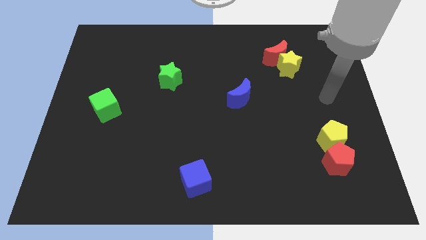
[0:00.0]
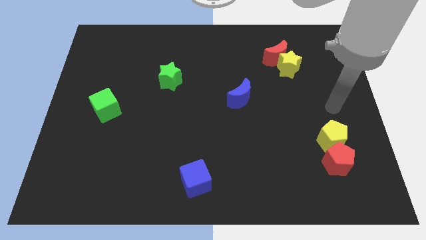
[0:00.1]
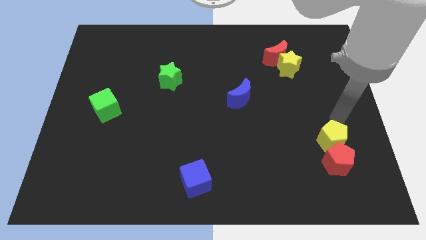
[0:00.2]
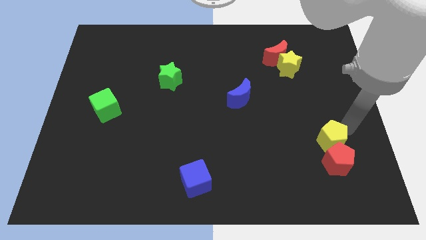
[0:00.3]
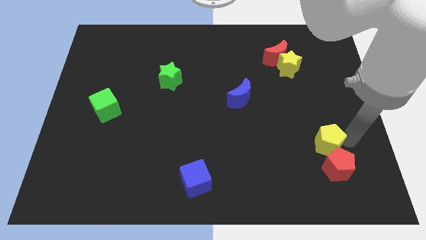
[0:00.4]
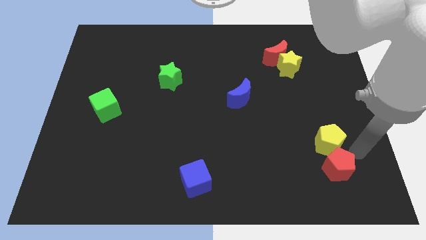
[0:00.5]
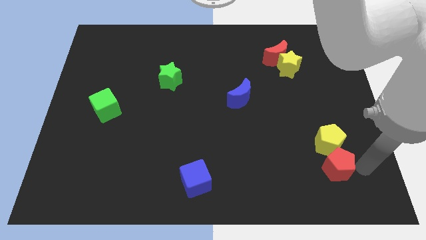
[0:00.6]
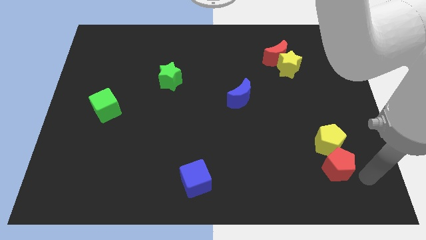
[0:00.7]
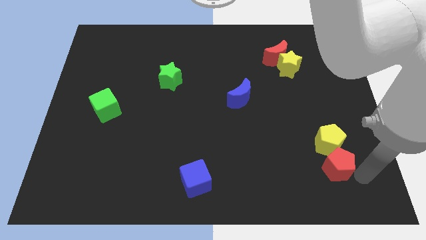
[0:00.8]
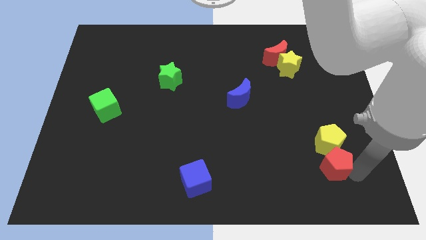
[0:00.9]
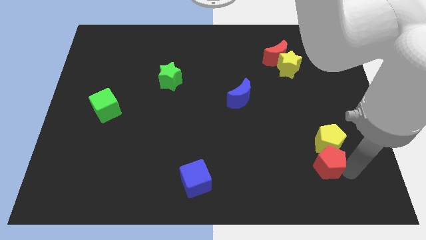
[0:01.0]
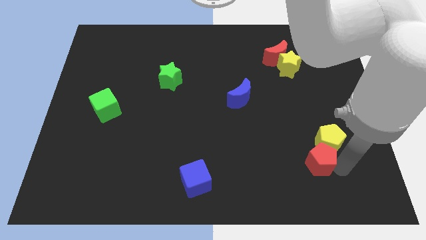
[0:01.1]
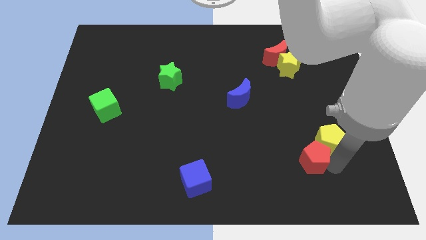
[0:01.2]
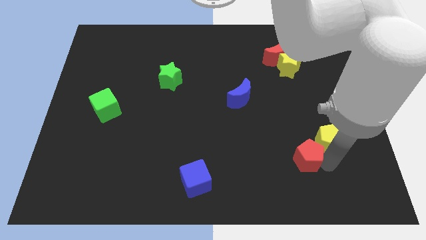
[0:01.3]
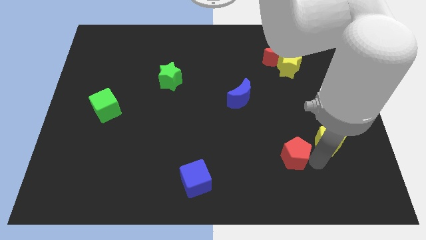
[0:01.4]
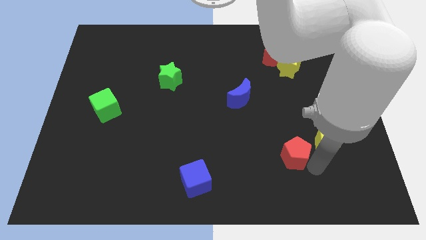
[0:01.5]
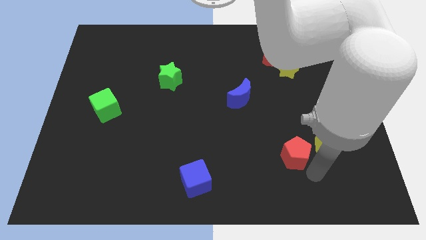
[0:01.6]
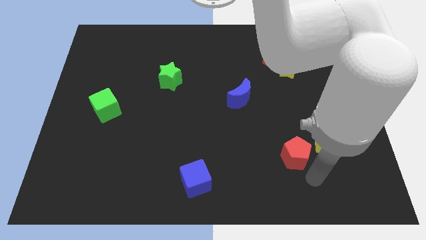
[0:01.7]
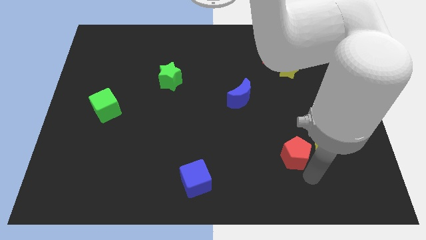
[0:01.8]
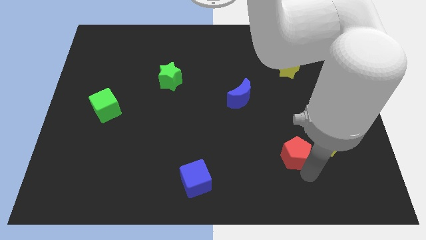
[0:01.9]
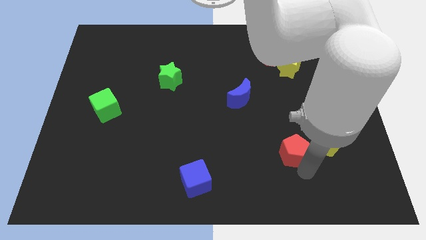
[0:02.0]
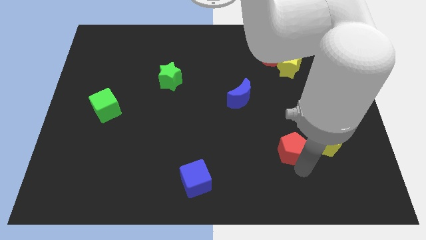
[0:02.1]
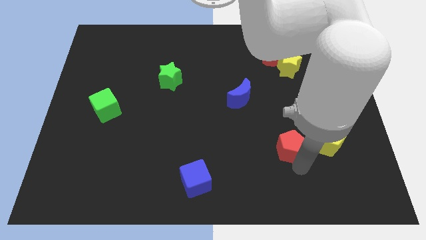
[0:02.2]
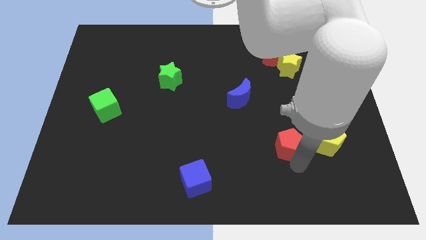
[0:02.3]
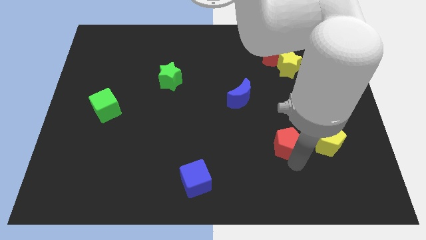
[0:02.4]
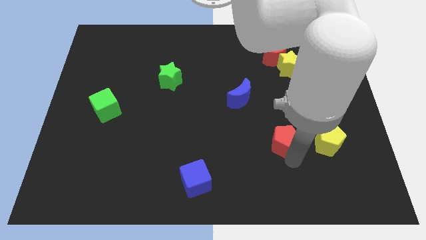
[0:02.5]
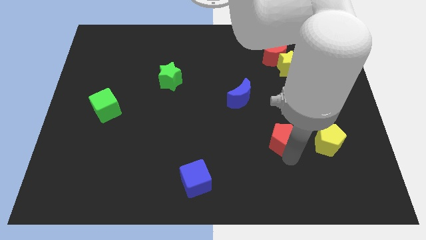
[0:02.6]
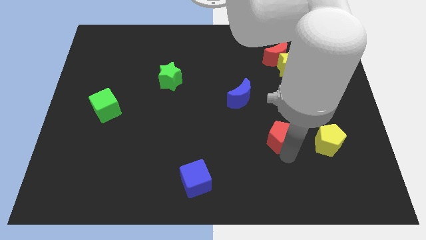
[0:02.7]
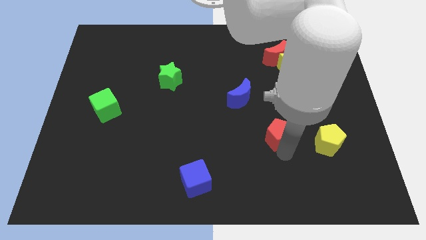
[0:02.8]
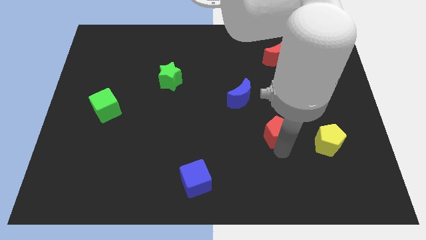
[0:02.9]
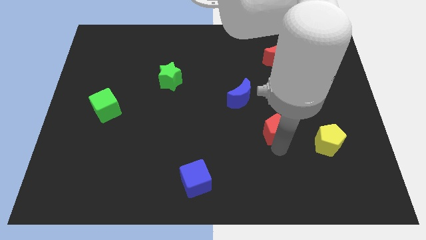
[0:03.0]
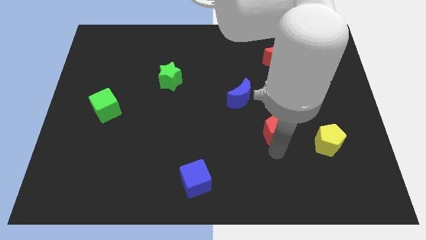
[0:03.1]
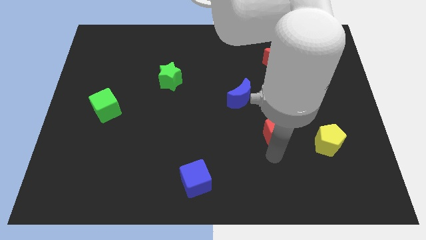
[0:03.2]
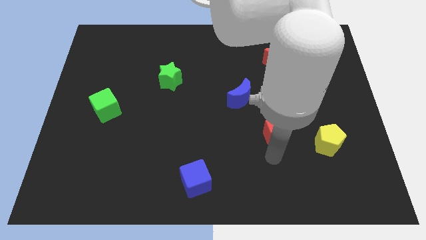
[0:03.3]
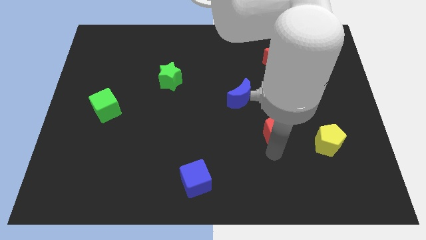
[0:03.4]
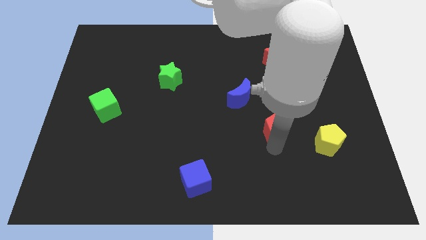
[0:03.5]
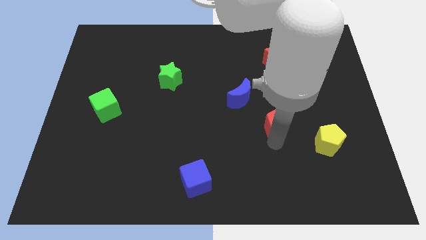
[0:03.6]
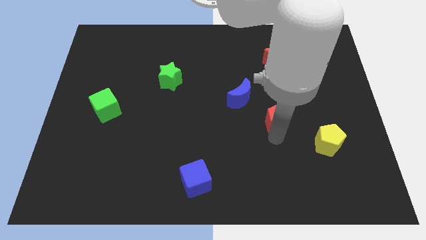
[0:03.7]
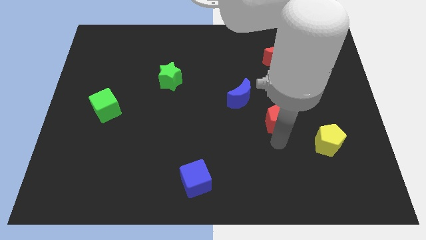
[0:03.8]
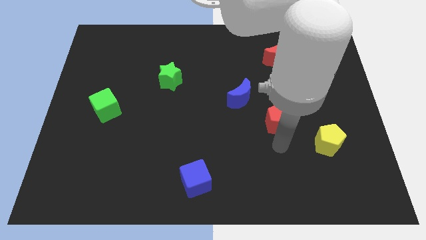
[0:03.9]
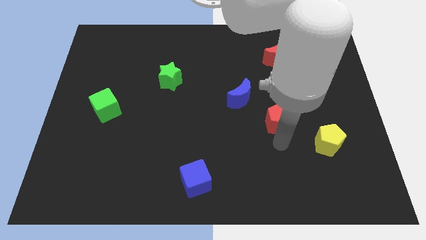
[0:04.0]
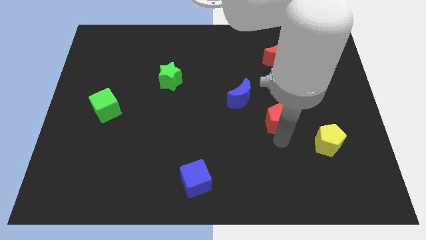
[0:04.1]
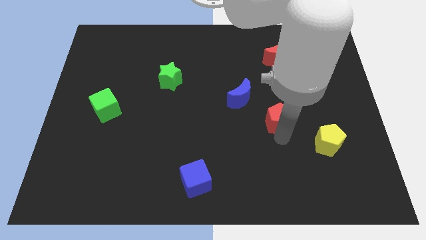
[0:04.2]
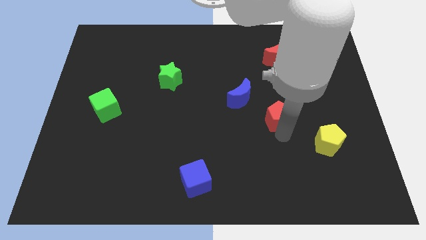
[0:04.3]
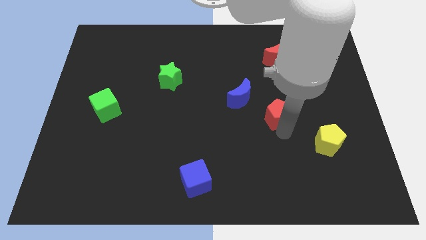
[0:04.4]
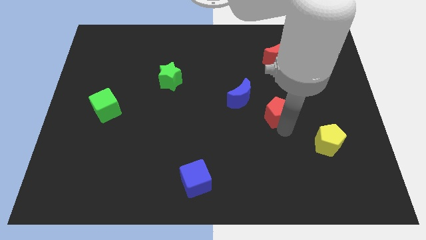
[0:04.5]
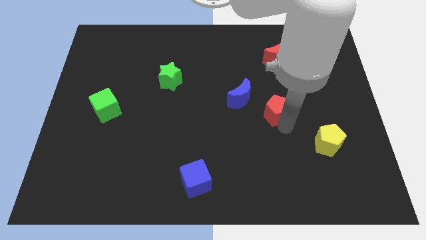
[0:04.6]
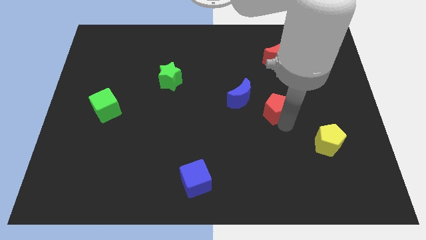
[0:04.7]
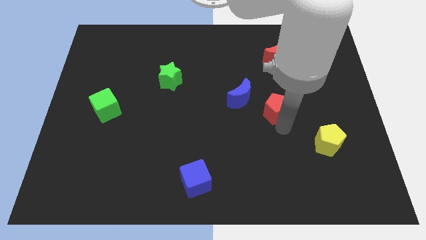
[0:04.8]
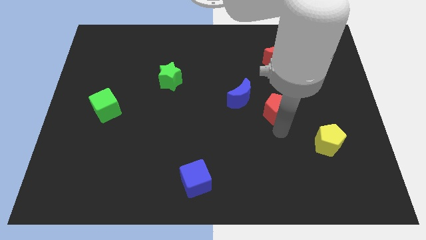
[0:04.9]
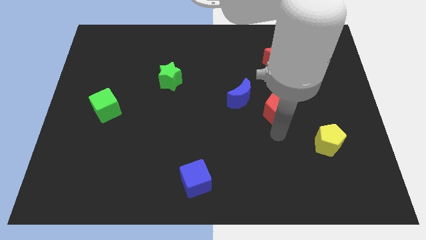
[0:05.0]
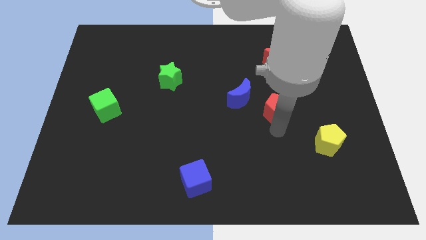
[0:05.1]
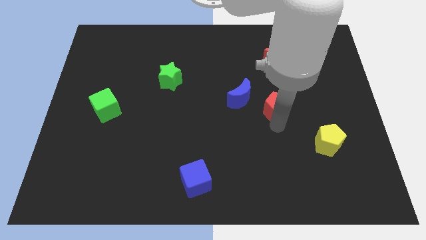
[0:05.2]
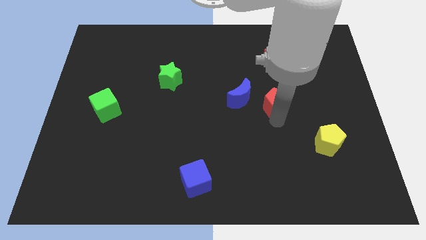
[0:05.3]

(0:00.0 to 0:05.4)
put the red pentagon below the red moon

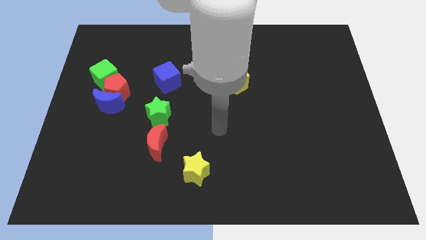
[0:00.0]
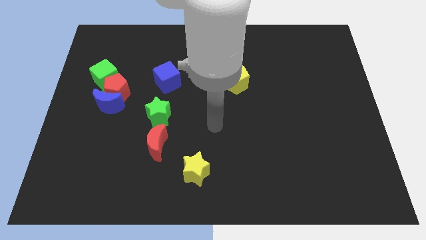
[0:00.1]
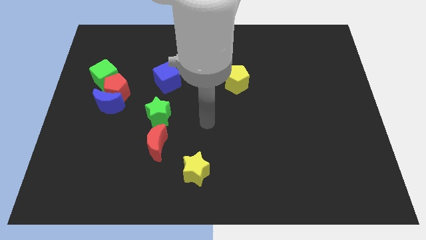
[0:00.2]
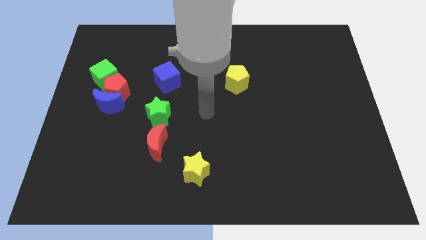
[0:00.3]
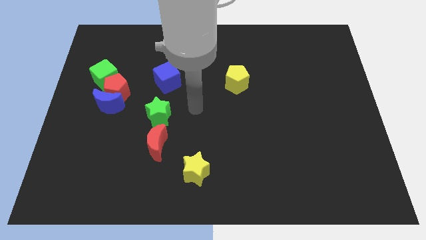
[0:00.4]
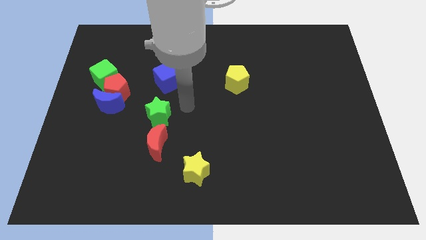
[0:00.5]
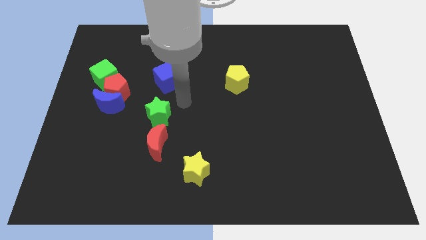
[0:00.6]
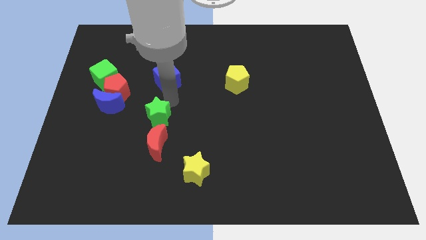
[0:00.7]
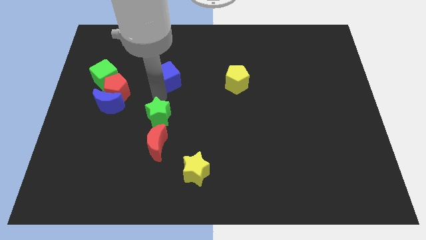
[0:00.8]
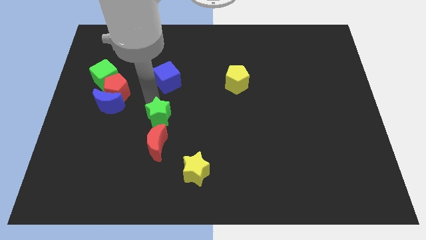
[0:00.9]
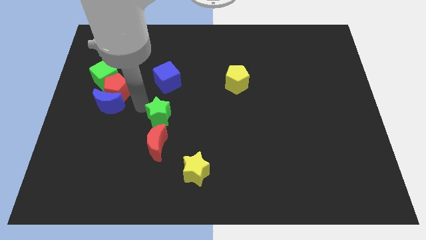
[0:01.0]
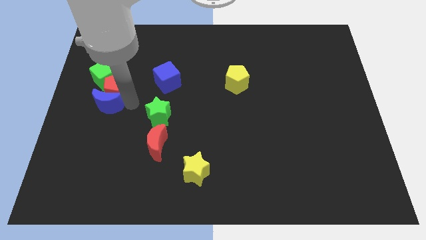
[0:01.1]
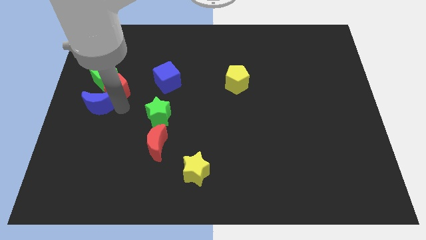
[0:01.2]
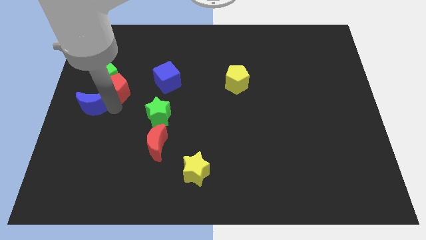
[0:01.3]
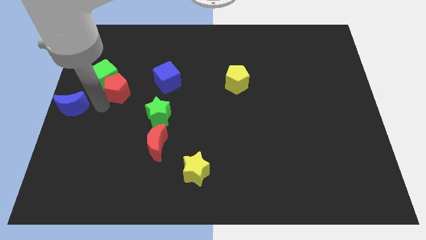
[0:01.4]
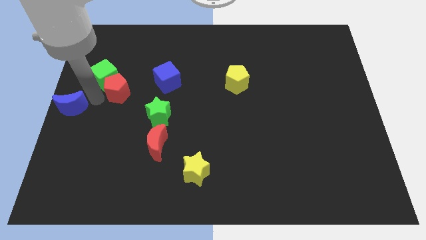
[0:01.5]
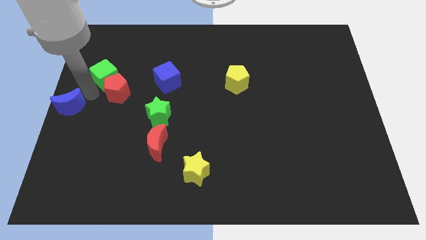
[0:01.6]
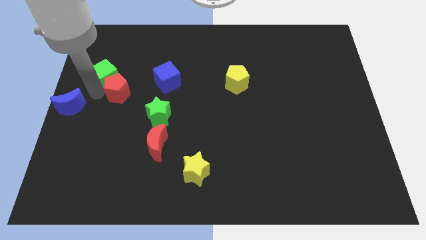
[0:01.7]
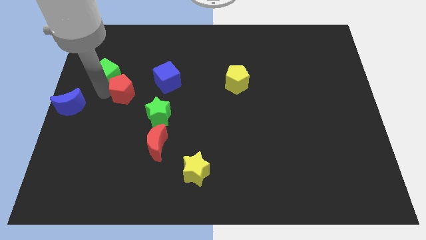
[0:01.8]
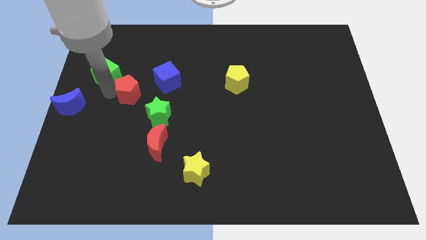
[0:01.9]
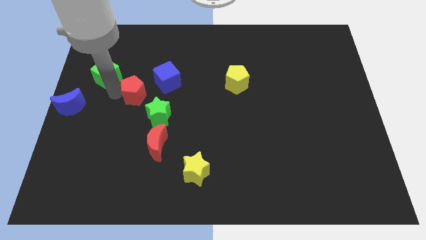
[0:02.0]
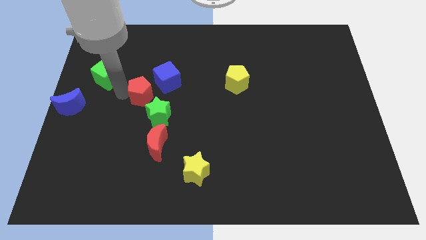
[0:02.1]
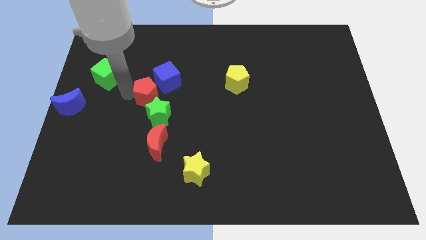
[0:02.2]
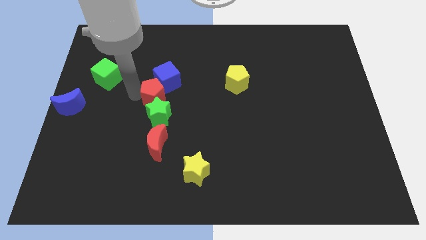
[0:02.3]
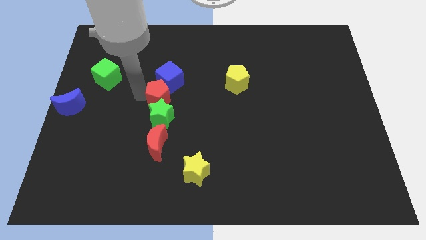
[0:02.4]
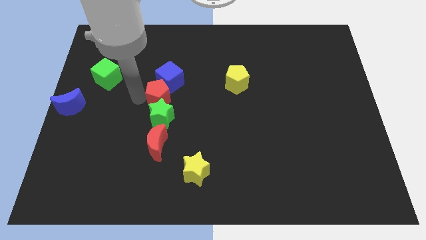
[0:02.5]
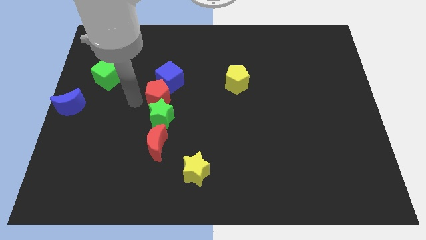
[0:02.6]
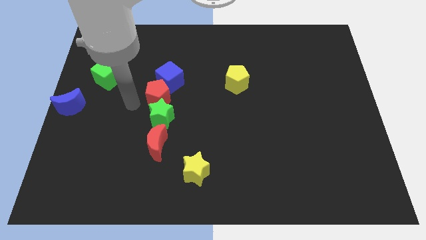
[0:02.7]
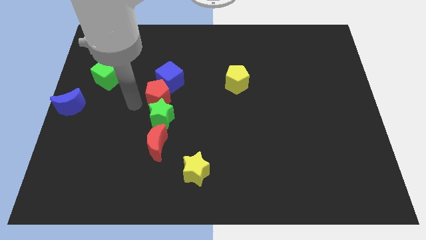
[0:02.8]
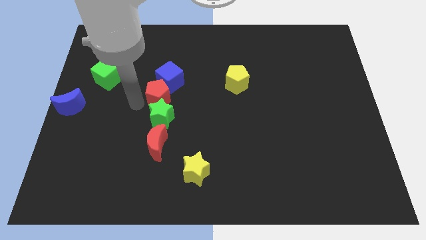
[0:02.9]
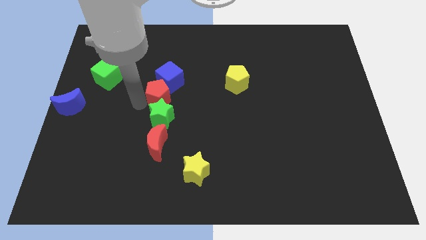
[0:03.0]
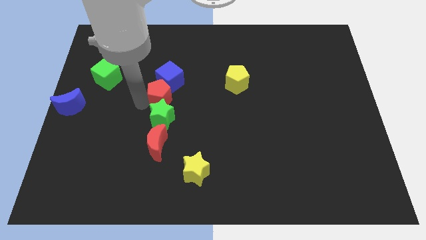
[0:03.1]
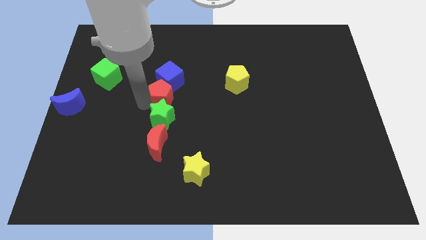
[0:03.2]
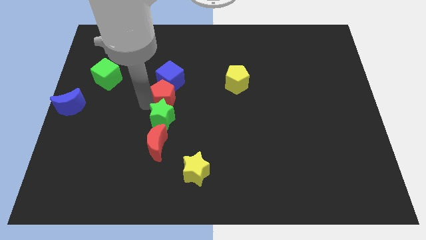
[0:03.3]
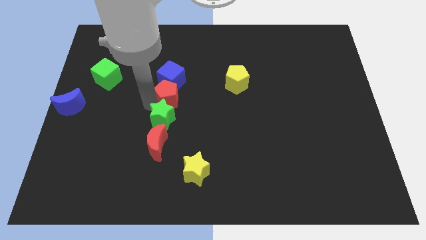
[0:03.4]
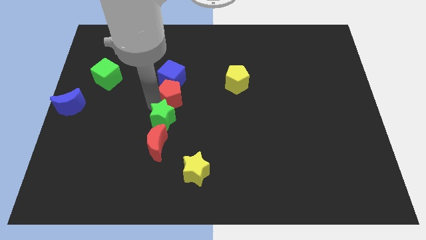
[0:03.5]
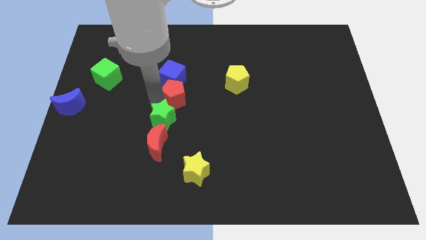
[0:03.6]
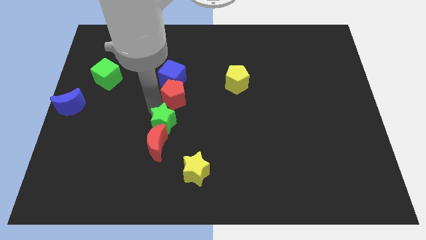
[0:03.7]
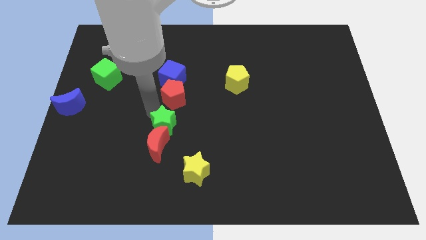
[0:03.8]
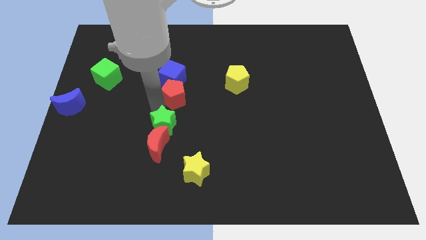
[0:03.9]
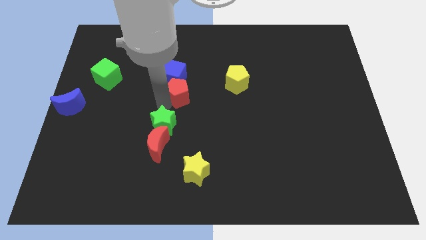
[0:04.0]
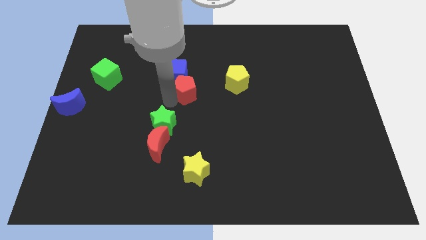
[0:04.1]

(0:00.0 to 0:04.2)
push the red pentagon to the left of the yellow pentagon
